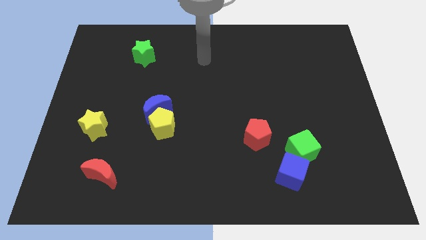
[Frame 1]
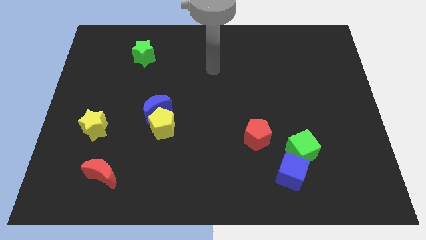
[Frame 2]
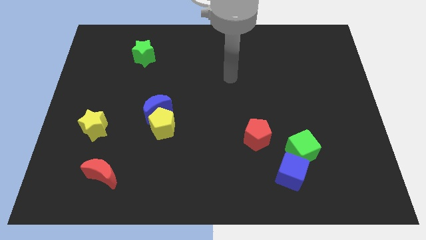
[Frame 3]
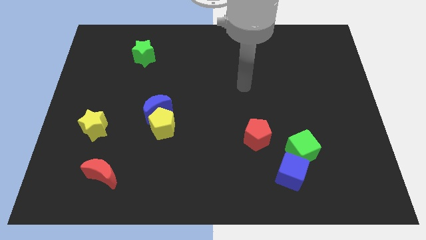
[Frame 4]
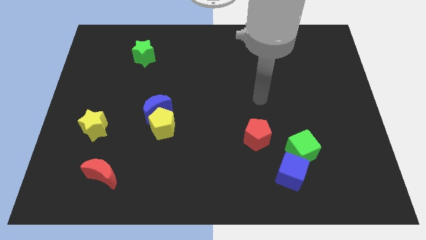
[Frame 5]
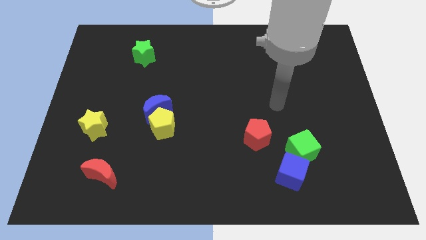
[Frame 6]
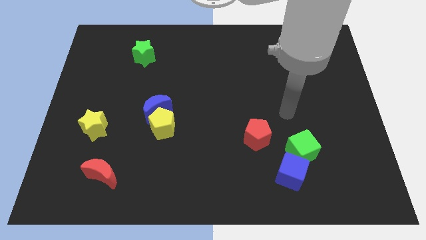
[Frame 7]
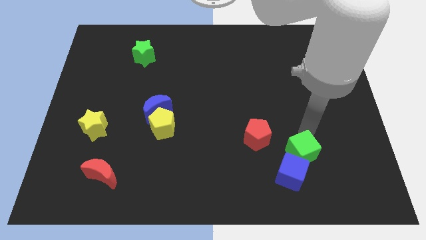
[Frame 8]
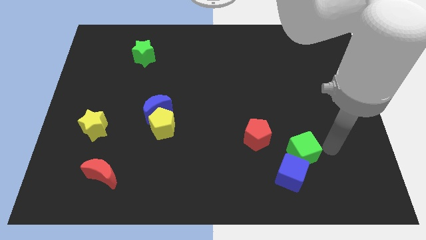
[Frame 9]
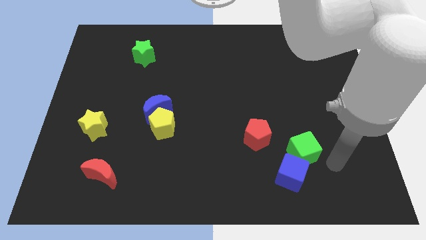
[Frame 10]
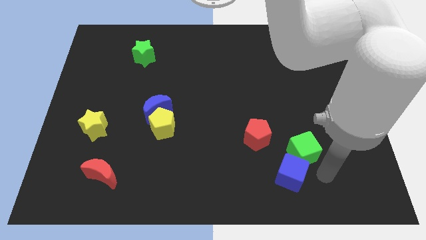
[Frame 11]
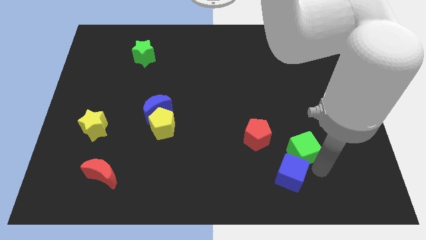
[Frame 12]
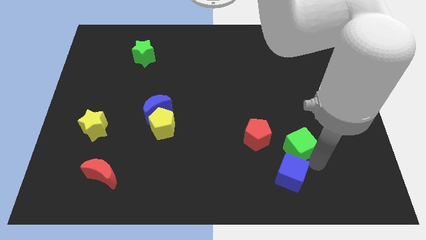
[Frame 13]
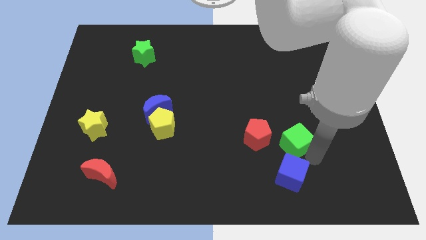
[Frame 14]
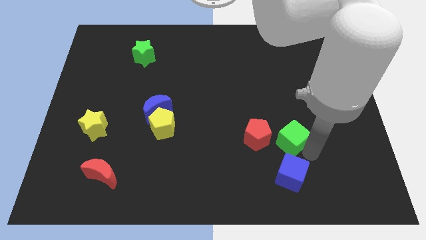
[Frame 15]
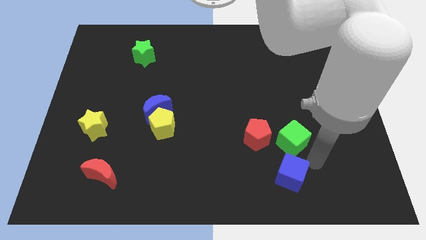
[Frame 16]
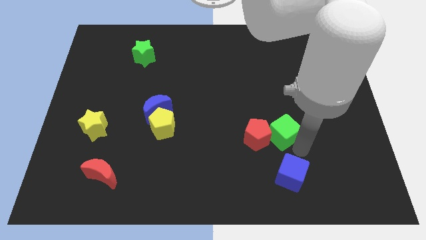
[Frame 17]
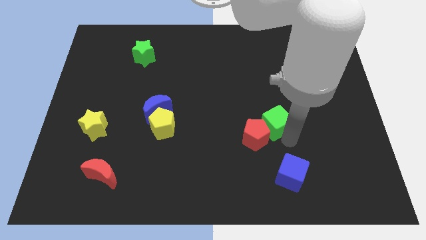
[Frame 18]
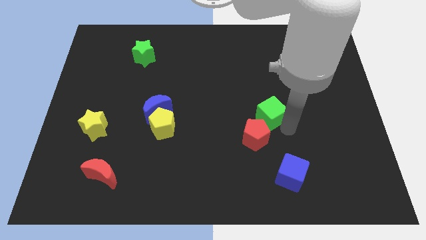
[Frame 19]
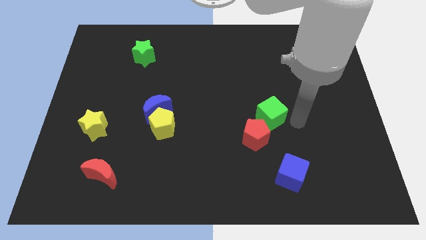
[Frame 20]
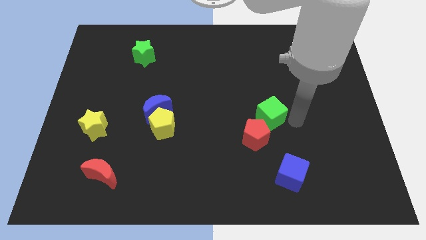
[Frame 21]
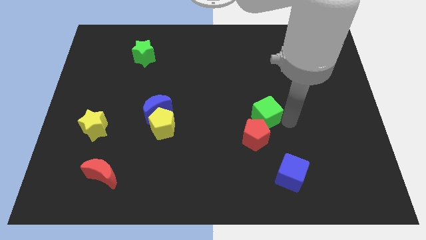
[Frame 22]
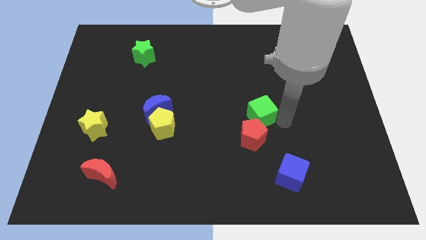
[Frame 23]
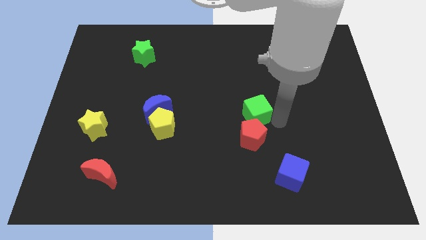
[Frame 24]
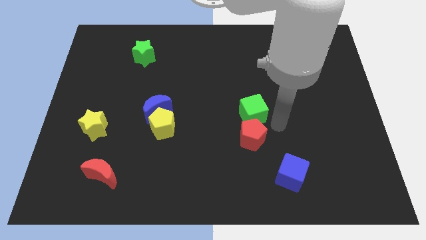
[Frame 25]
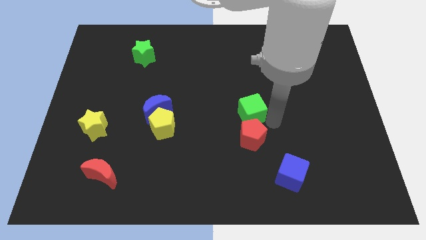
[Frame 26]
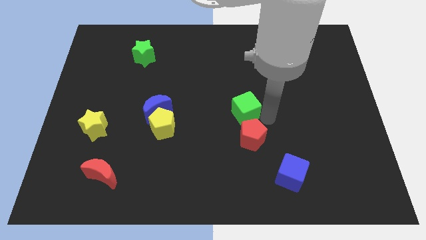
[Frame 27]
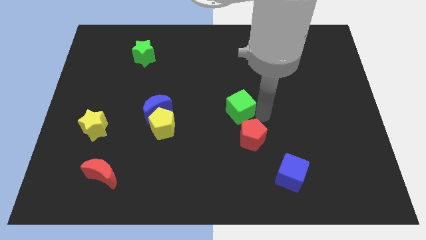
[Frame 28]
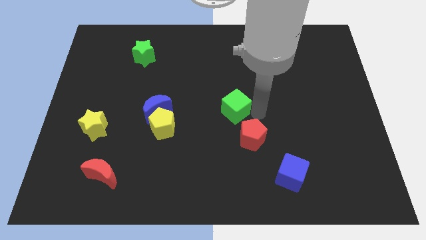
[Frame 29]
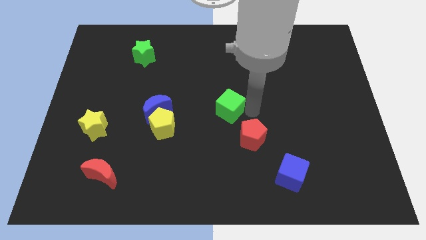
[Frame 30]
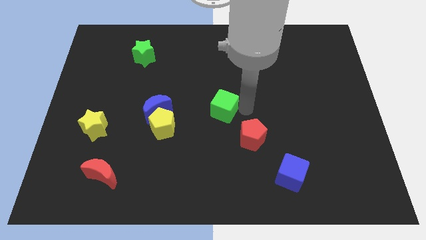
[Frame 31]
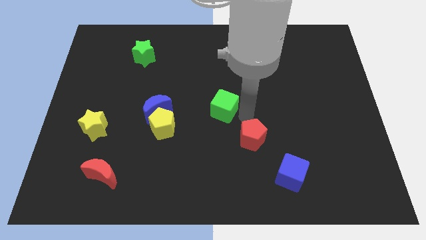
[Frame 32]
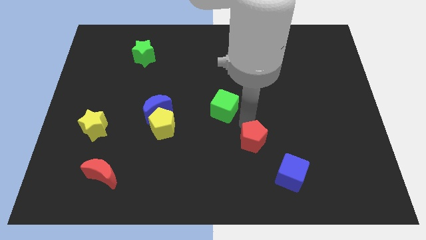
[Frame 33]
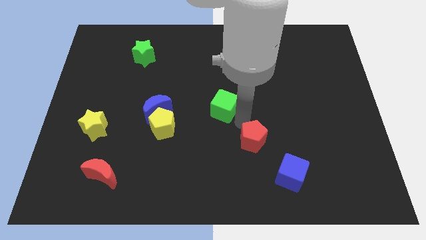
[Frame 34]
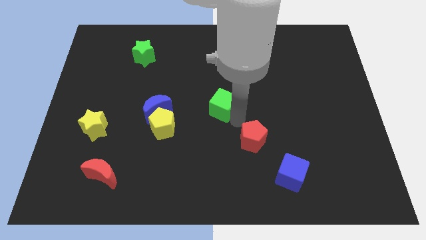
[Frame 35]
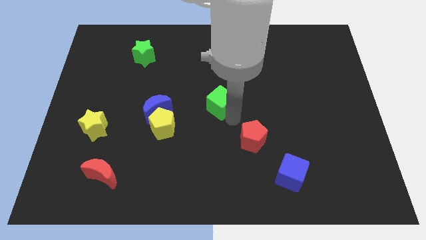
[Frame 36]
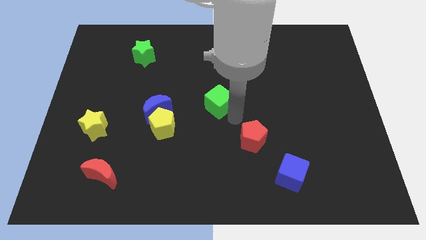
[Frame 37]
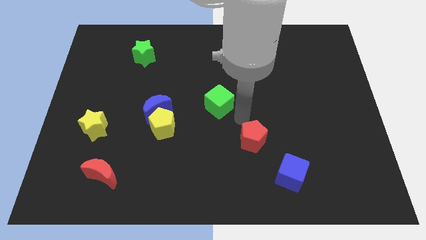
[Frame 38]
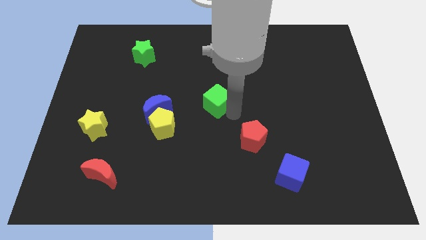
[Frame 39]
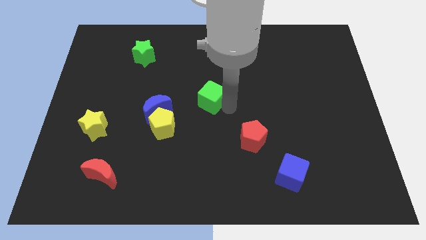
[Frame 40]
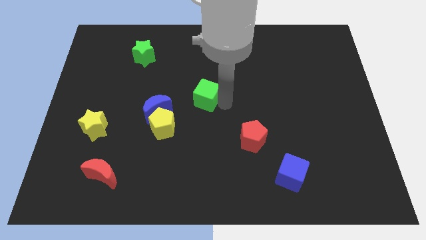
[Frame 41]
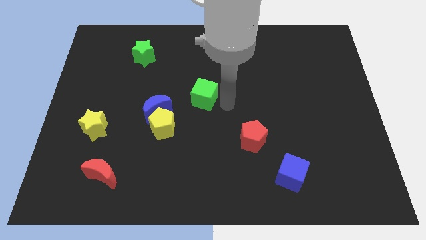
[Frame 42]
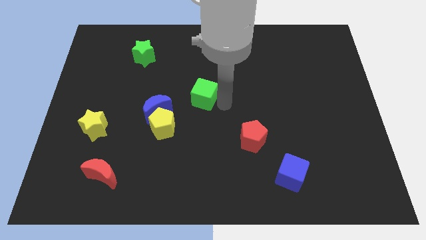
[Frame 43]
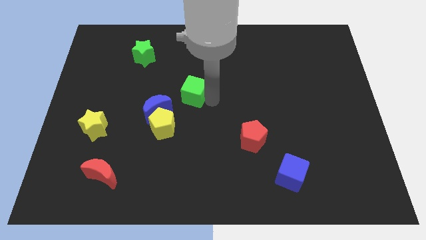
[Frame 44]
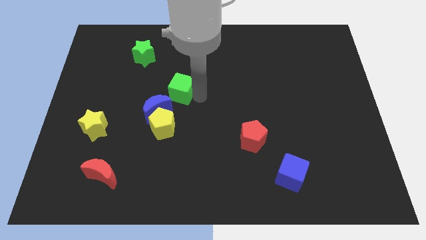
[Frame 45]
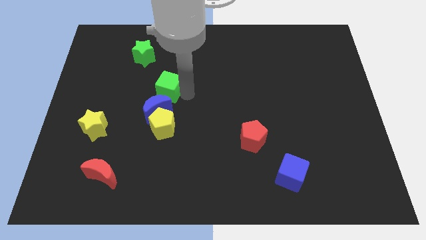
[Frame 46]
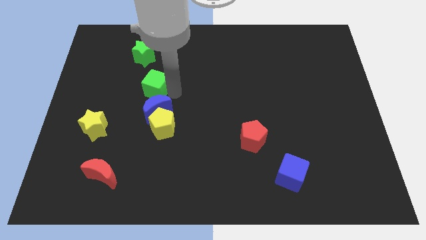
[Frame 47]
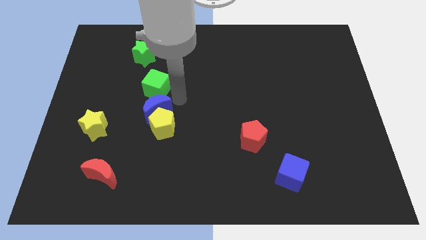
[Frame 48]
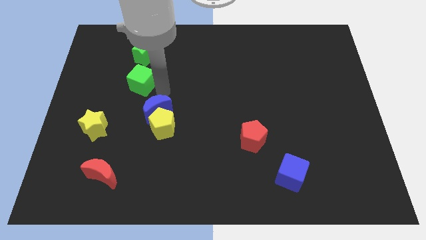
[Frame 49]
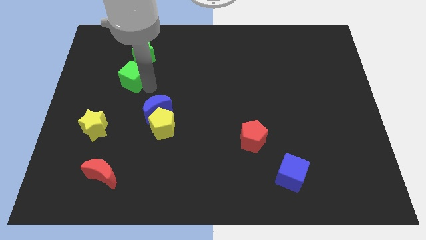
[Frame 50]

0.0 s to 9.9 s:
move the green cube diagonally down and to the left of the green star

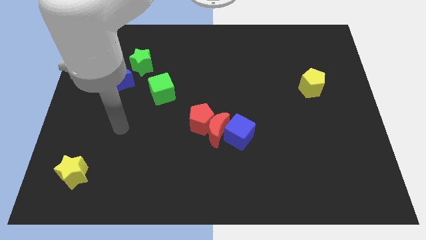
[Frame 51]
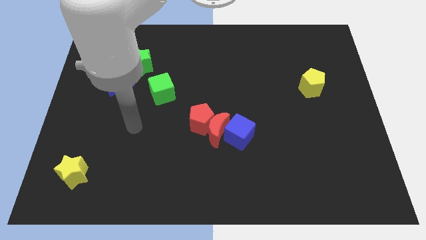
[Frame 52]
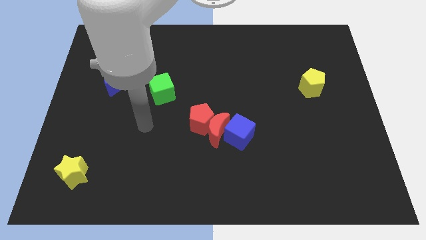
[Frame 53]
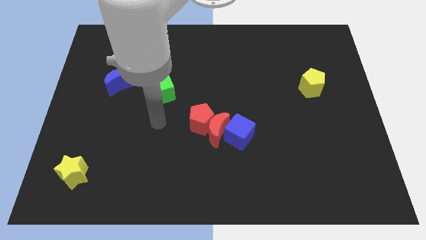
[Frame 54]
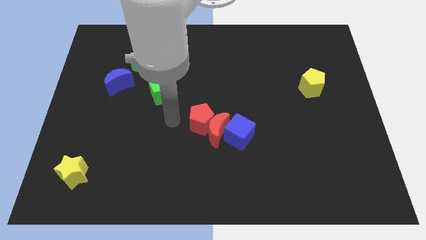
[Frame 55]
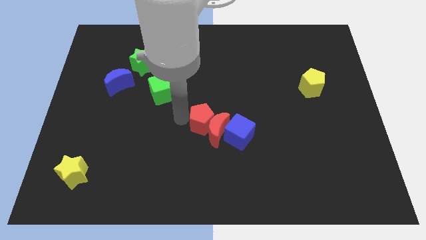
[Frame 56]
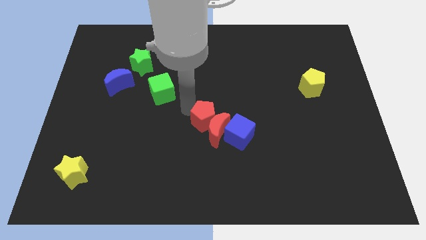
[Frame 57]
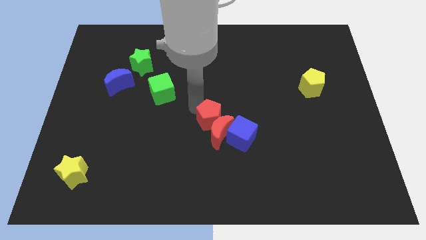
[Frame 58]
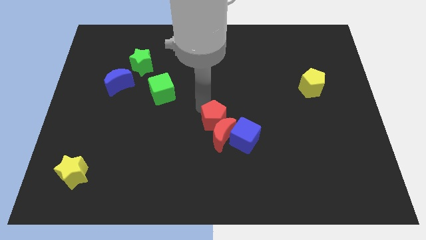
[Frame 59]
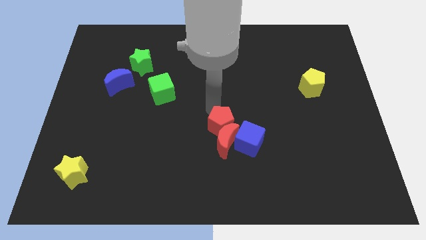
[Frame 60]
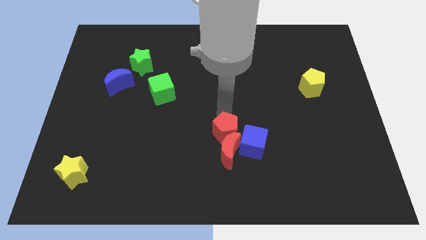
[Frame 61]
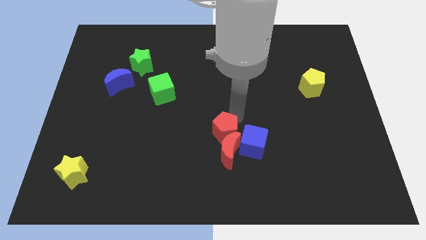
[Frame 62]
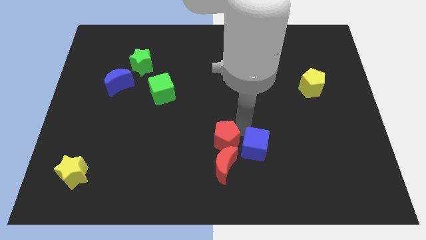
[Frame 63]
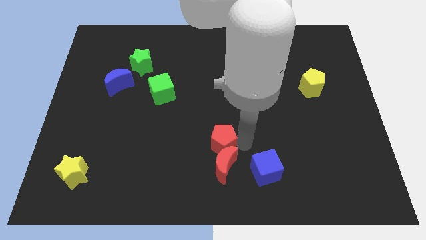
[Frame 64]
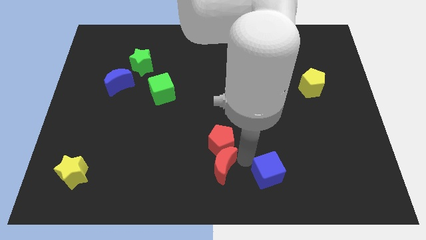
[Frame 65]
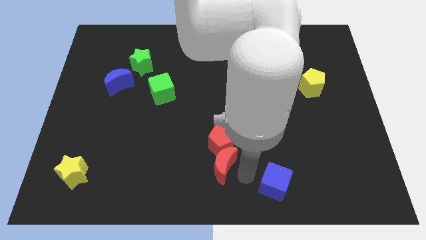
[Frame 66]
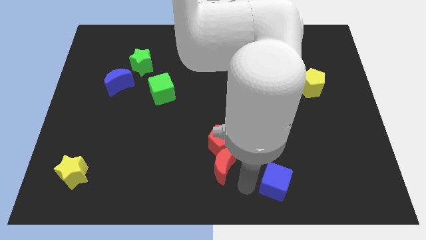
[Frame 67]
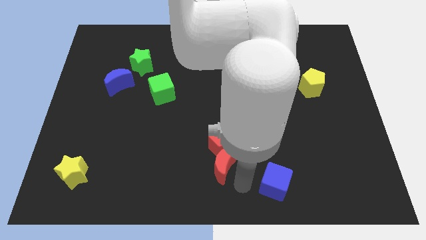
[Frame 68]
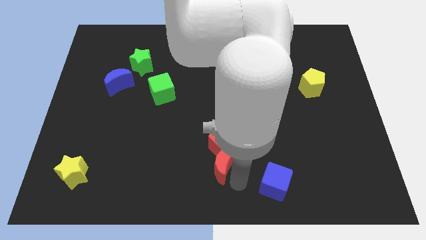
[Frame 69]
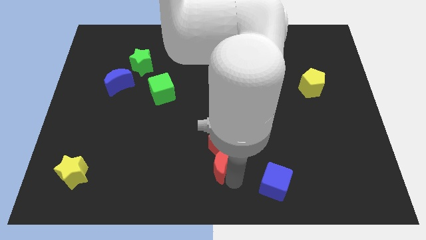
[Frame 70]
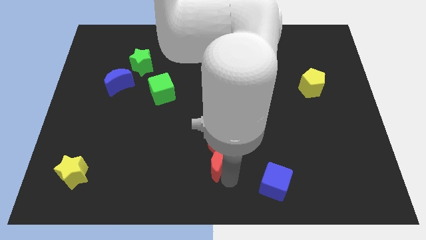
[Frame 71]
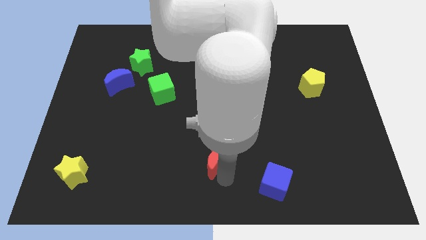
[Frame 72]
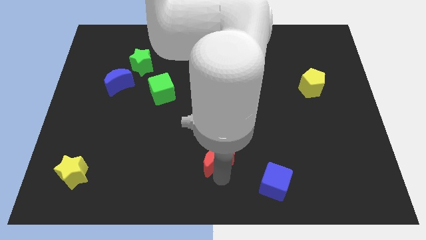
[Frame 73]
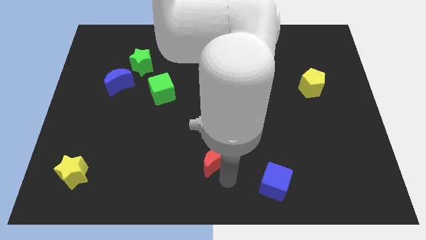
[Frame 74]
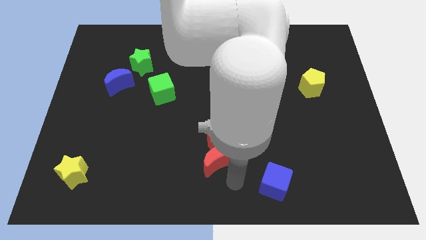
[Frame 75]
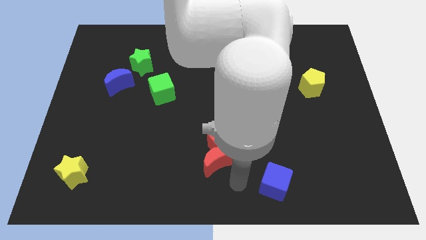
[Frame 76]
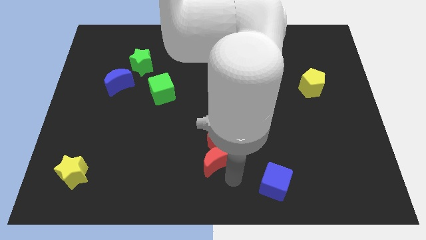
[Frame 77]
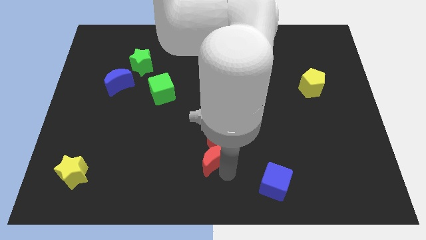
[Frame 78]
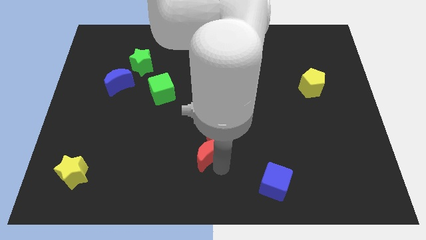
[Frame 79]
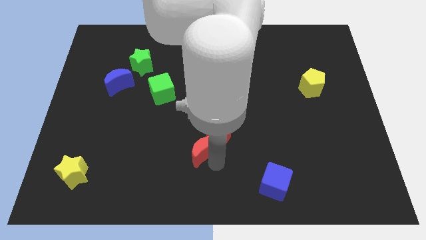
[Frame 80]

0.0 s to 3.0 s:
put the red moon to the left side of the red pentagon
